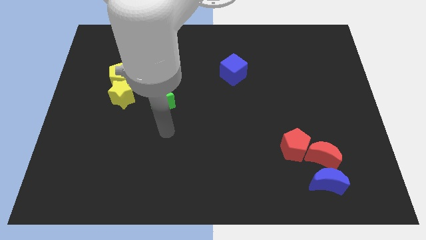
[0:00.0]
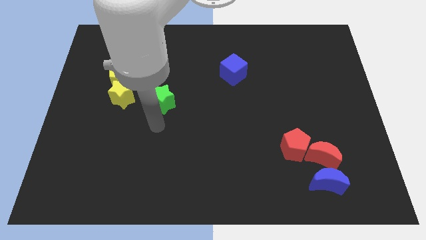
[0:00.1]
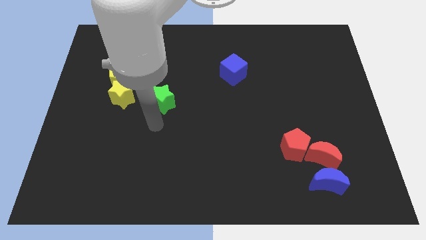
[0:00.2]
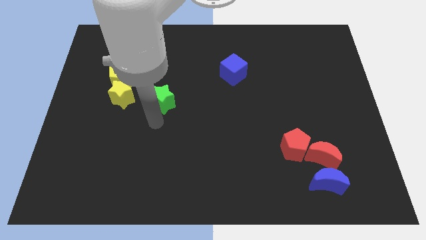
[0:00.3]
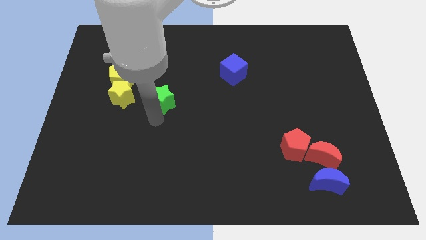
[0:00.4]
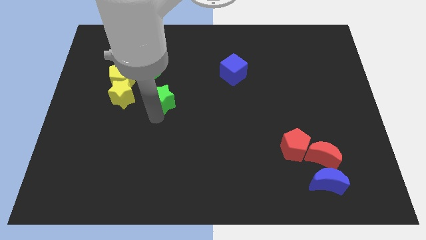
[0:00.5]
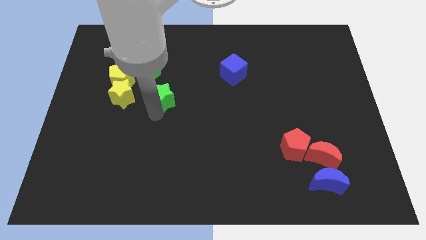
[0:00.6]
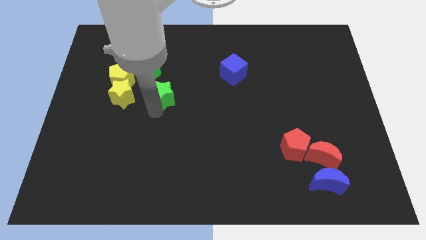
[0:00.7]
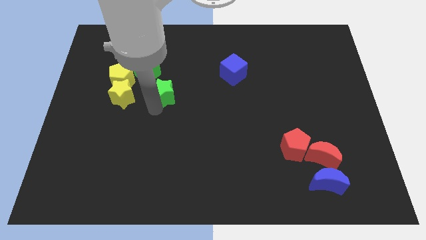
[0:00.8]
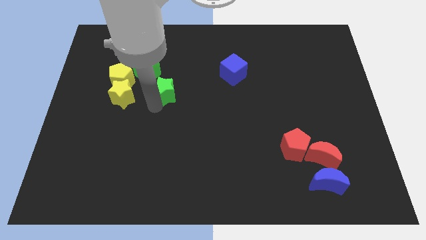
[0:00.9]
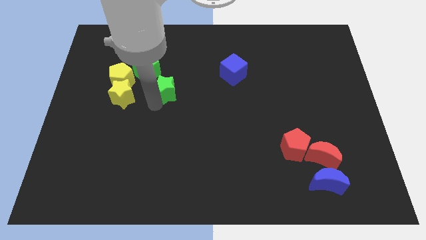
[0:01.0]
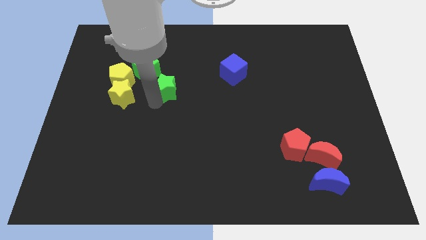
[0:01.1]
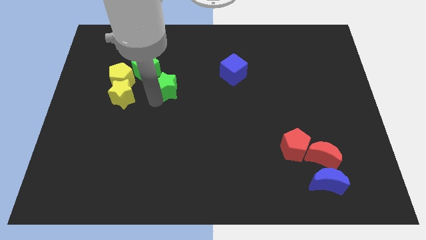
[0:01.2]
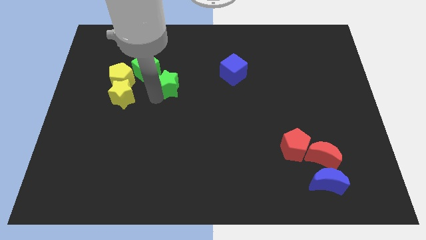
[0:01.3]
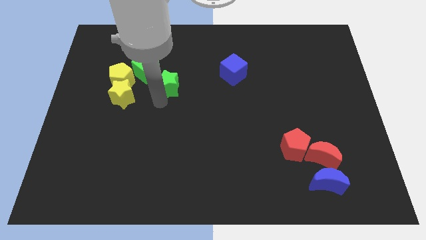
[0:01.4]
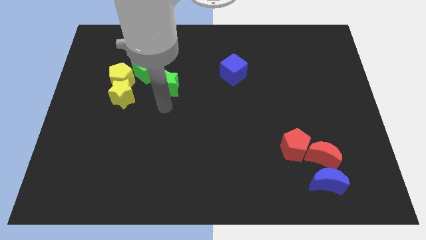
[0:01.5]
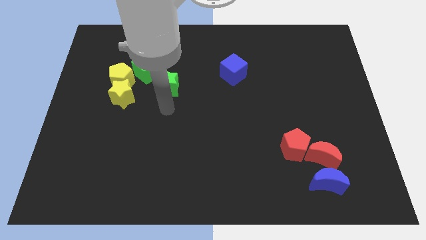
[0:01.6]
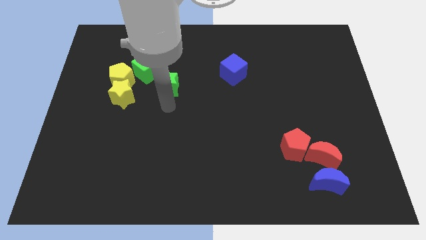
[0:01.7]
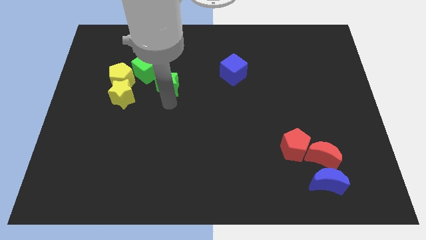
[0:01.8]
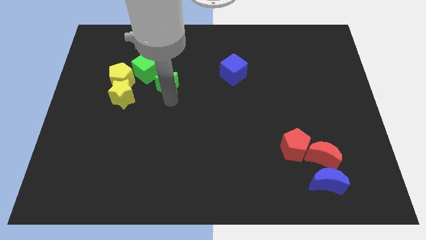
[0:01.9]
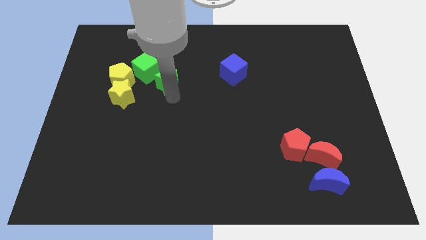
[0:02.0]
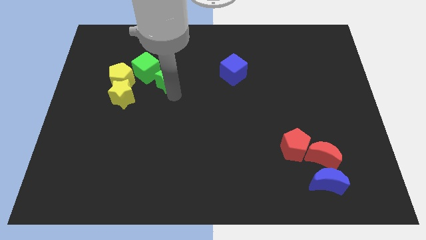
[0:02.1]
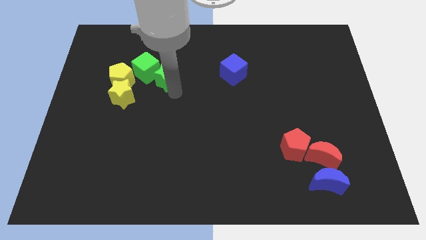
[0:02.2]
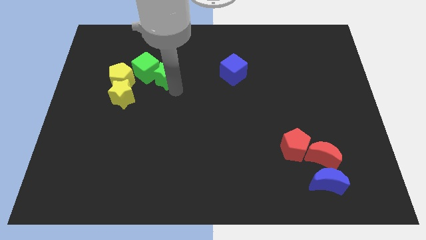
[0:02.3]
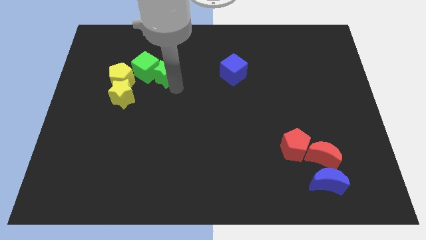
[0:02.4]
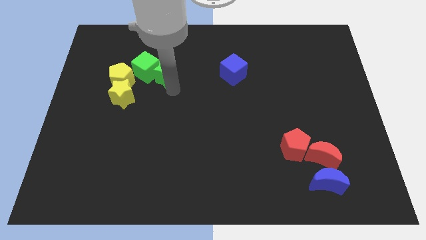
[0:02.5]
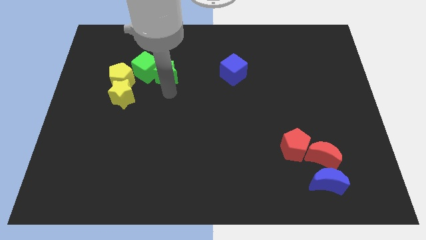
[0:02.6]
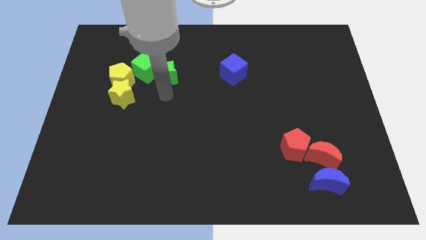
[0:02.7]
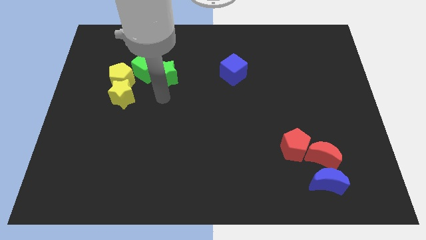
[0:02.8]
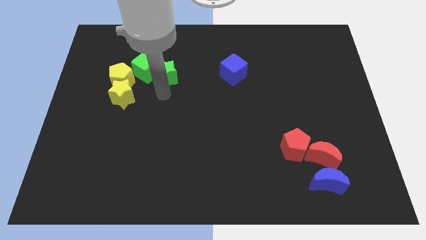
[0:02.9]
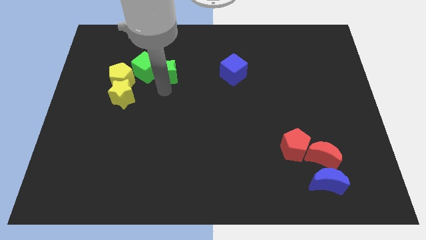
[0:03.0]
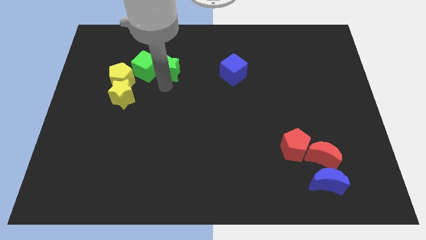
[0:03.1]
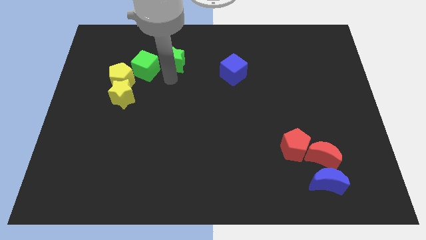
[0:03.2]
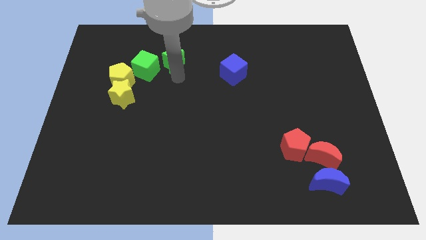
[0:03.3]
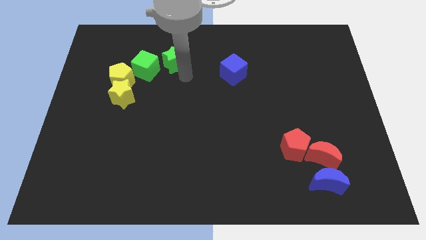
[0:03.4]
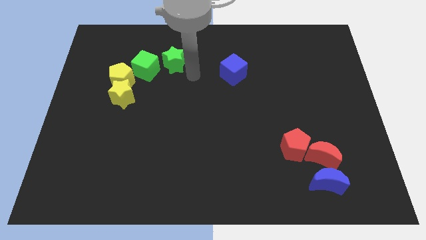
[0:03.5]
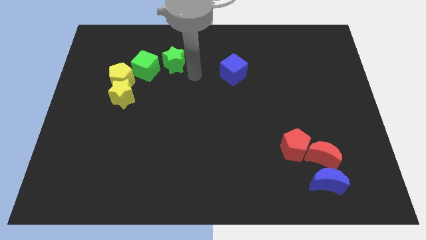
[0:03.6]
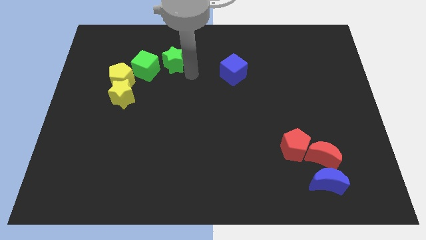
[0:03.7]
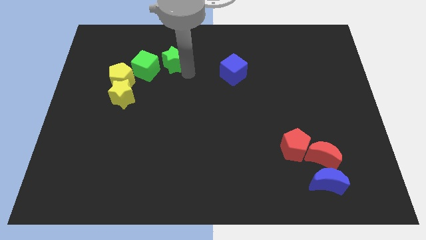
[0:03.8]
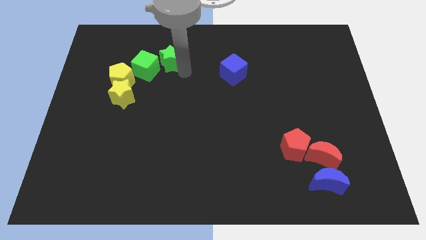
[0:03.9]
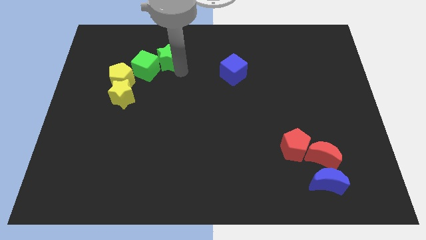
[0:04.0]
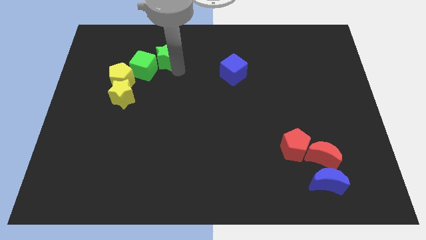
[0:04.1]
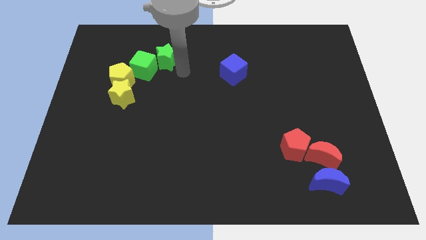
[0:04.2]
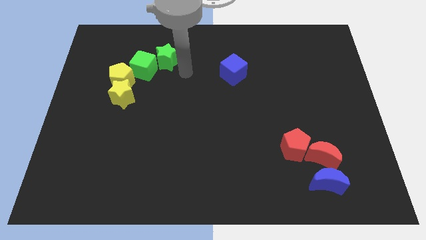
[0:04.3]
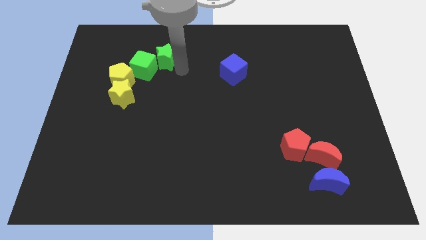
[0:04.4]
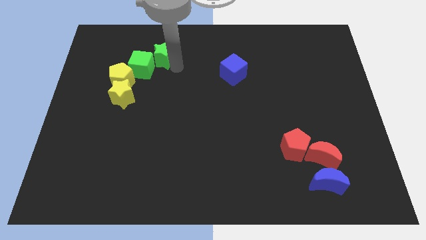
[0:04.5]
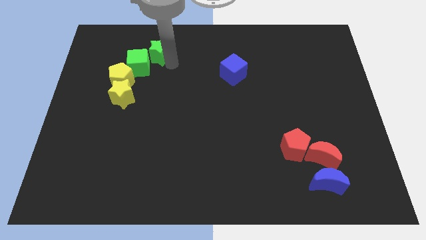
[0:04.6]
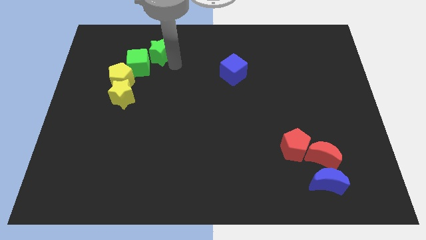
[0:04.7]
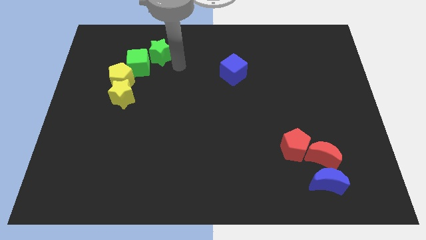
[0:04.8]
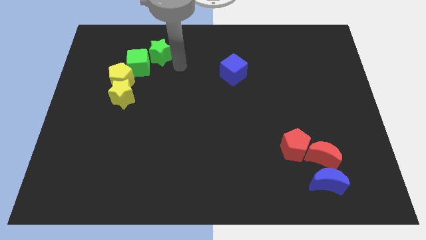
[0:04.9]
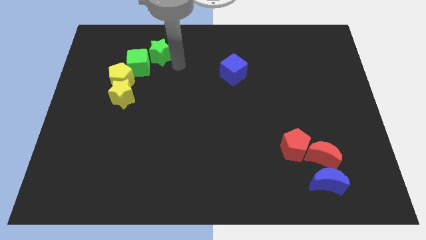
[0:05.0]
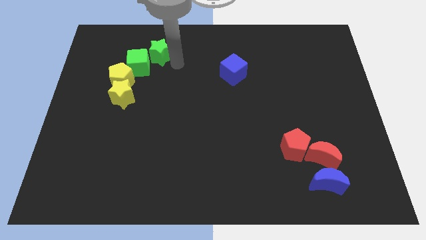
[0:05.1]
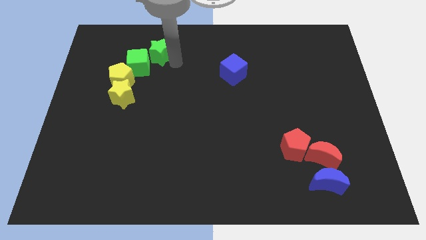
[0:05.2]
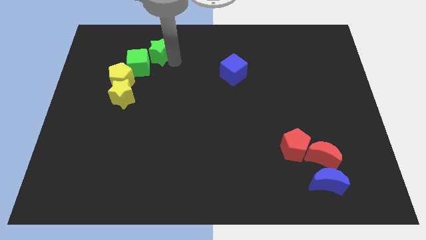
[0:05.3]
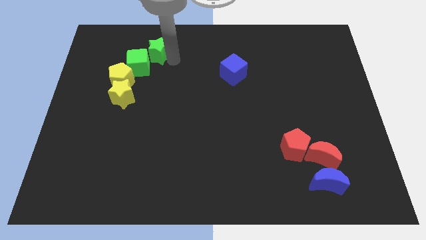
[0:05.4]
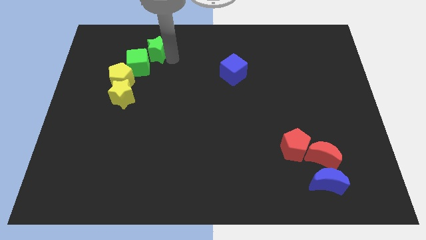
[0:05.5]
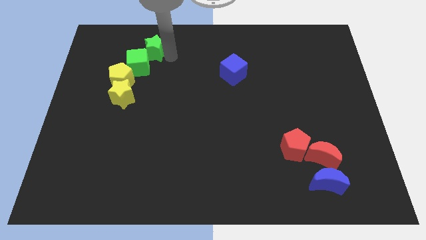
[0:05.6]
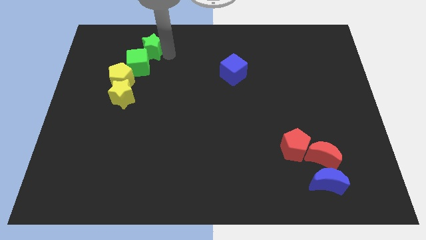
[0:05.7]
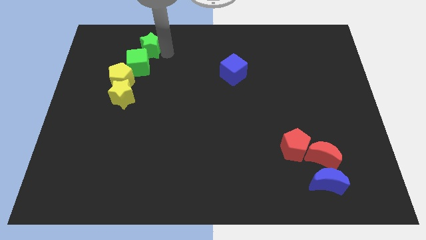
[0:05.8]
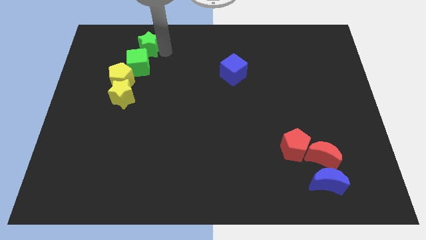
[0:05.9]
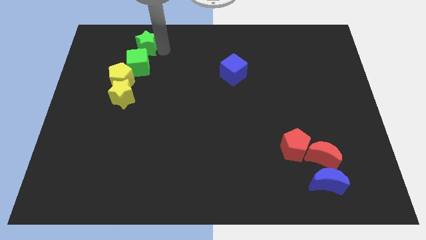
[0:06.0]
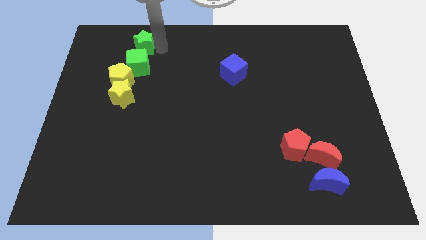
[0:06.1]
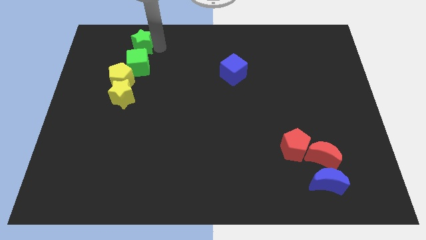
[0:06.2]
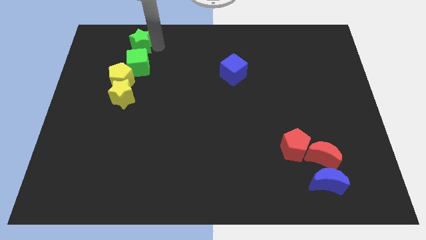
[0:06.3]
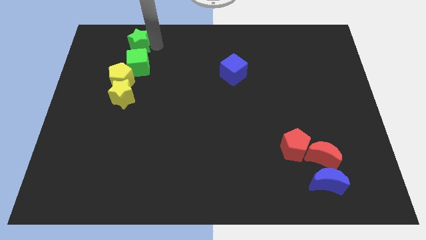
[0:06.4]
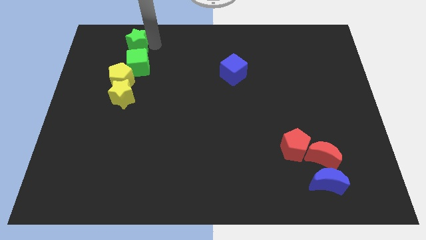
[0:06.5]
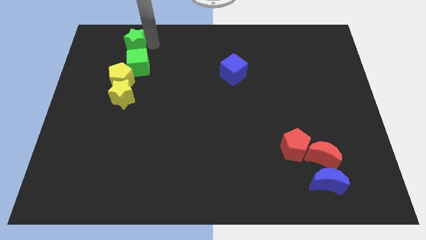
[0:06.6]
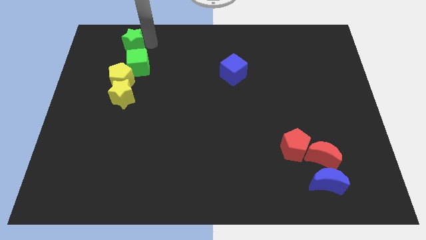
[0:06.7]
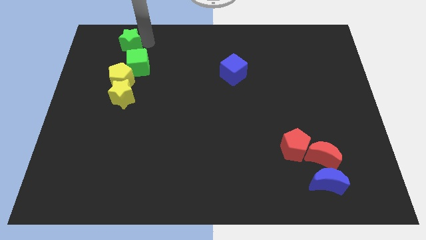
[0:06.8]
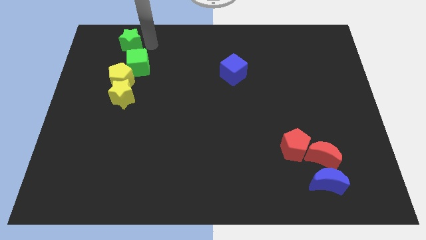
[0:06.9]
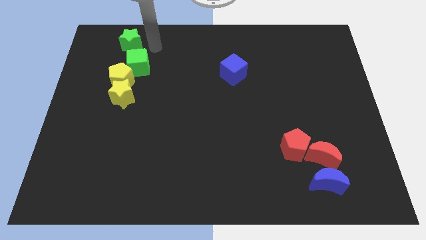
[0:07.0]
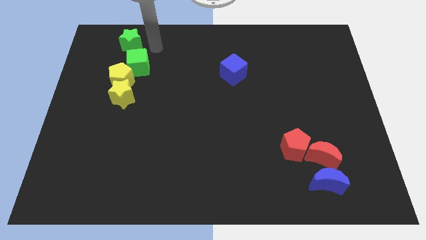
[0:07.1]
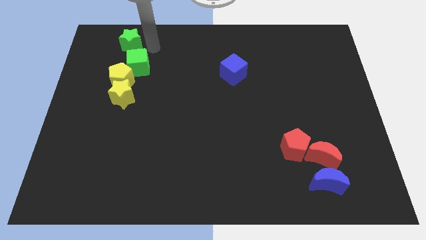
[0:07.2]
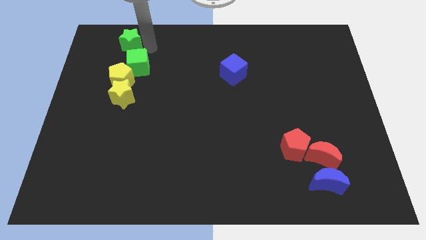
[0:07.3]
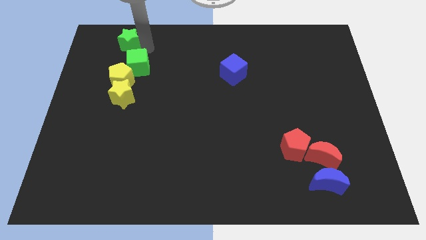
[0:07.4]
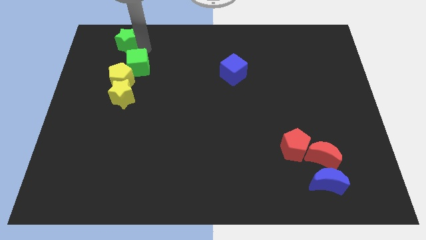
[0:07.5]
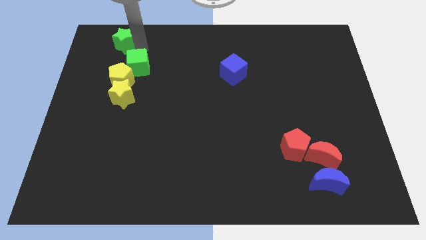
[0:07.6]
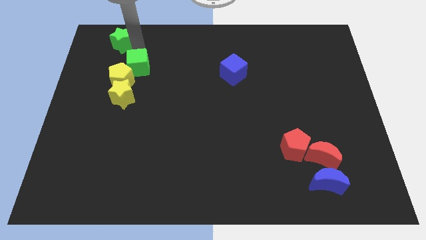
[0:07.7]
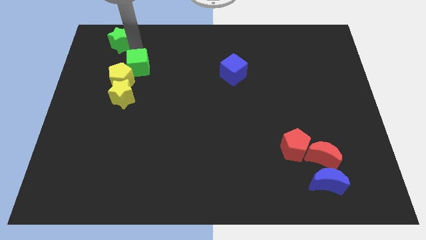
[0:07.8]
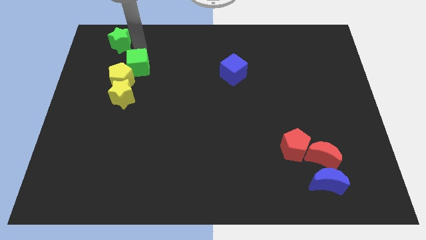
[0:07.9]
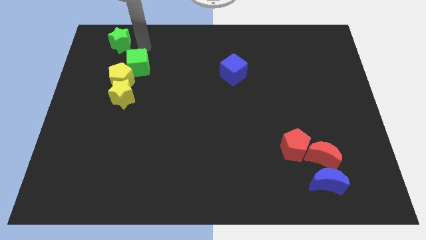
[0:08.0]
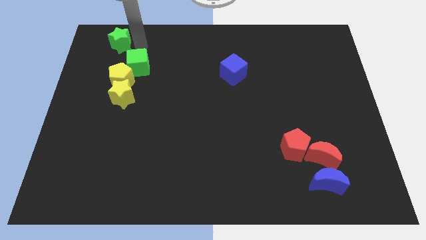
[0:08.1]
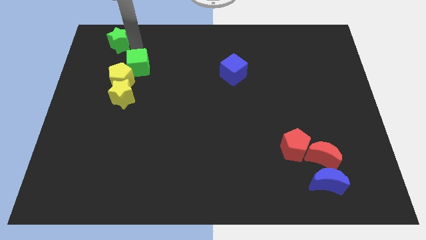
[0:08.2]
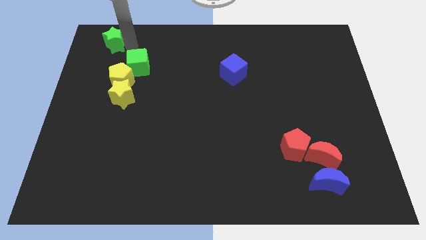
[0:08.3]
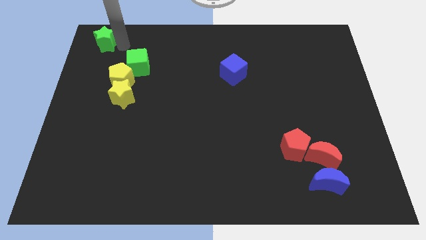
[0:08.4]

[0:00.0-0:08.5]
move the green star to the top left corner
